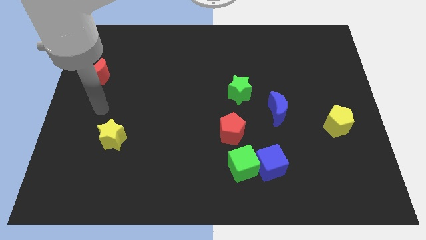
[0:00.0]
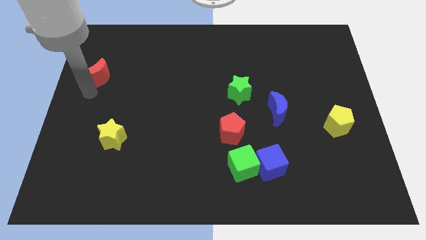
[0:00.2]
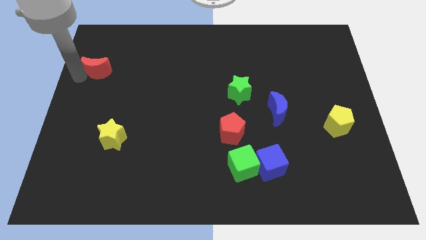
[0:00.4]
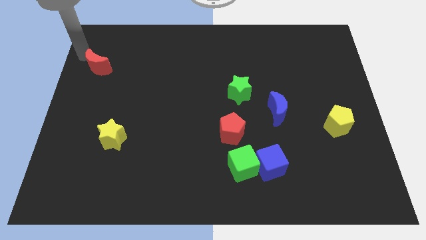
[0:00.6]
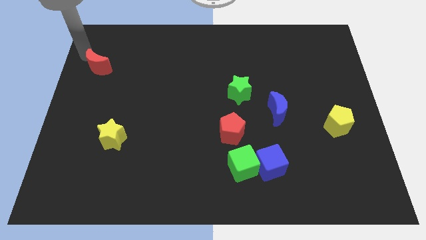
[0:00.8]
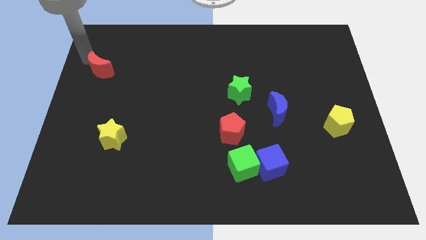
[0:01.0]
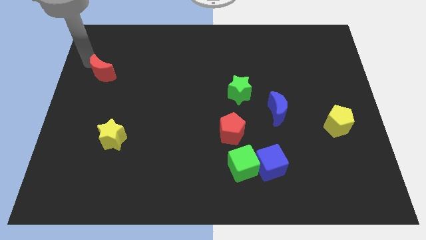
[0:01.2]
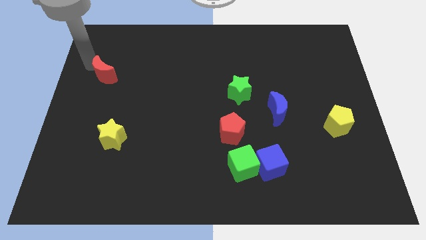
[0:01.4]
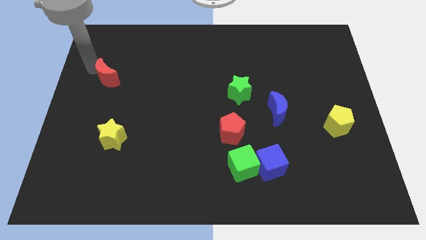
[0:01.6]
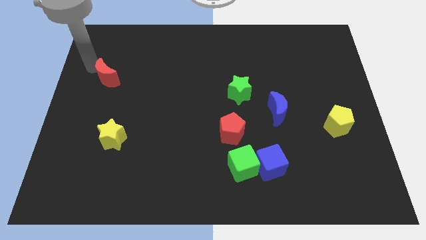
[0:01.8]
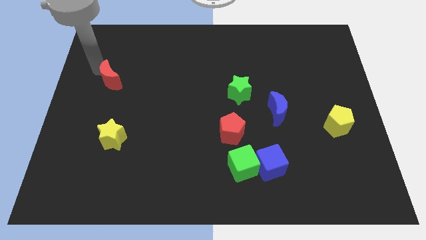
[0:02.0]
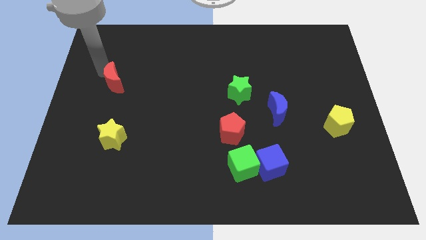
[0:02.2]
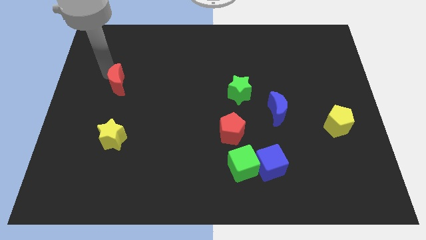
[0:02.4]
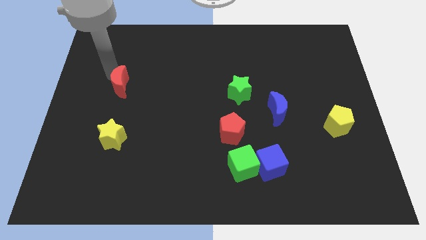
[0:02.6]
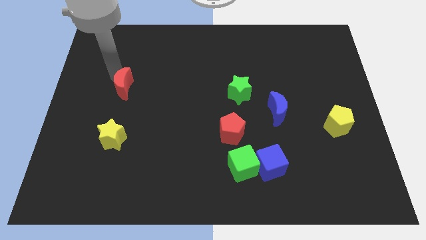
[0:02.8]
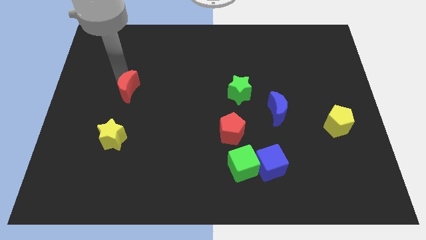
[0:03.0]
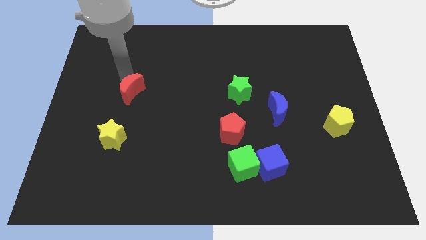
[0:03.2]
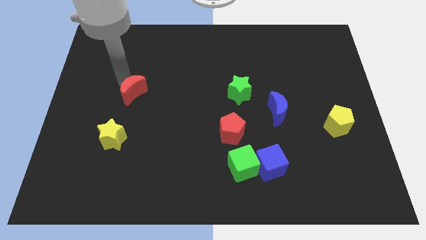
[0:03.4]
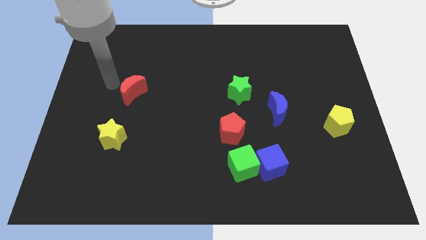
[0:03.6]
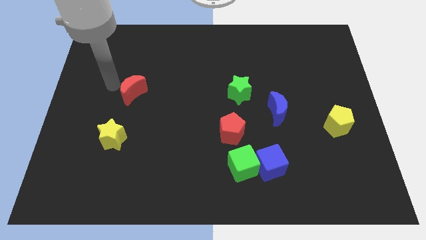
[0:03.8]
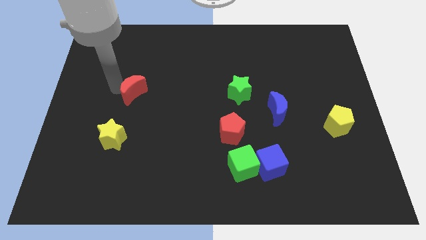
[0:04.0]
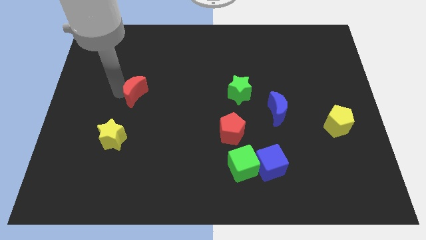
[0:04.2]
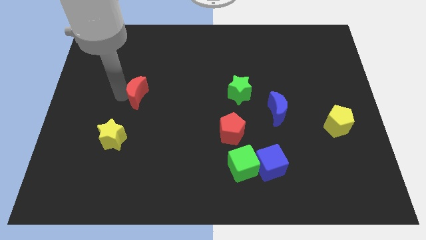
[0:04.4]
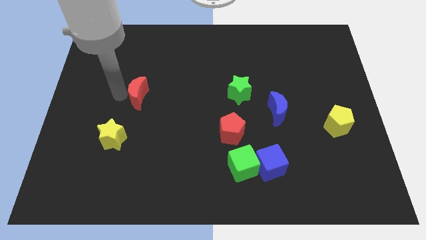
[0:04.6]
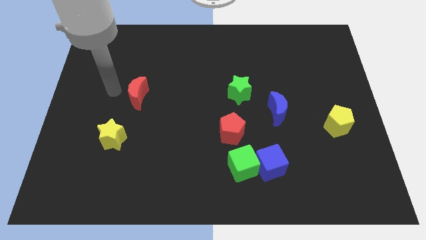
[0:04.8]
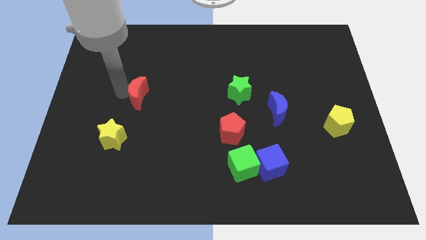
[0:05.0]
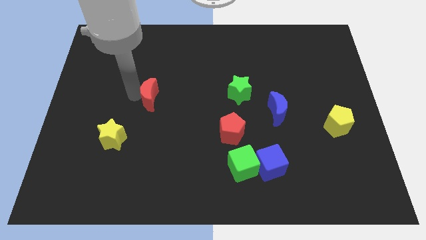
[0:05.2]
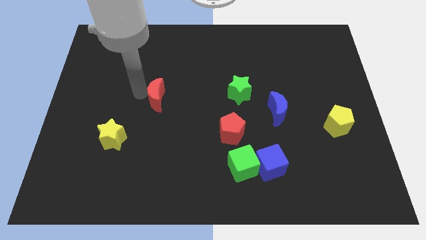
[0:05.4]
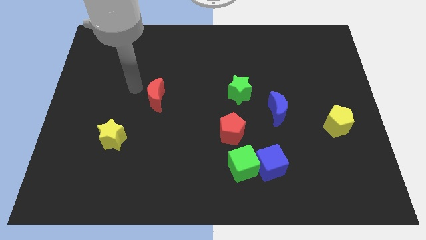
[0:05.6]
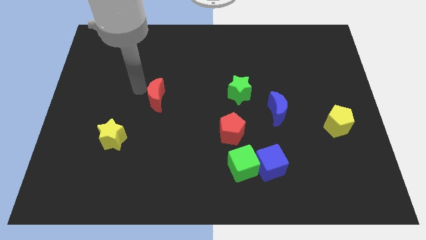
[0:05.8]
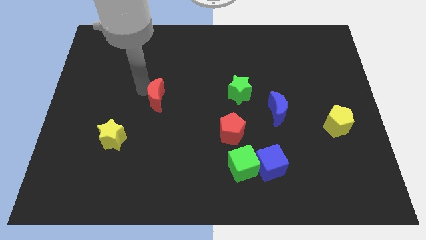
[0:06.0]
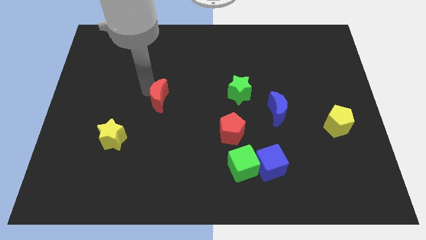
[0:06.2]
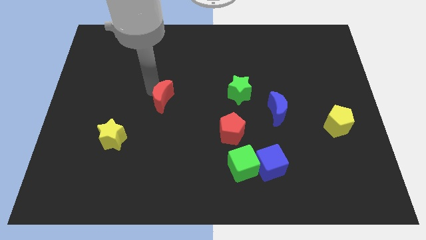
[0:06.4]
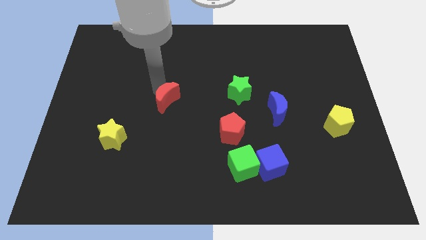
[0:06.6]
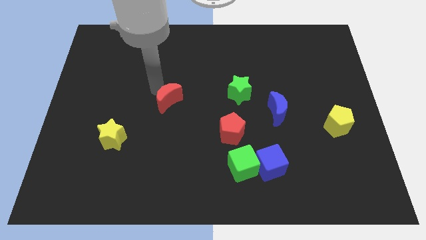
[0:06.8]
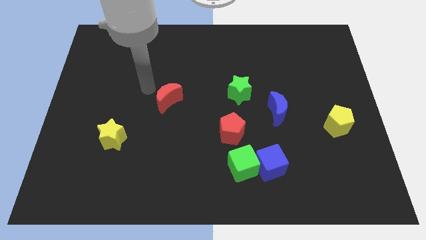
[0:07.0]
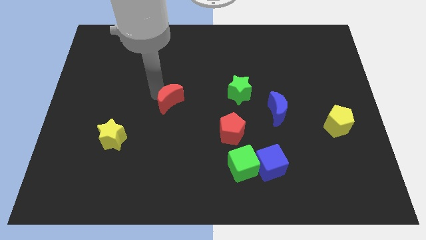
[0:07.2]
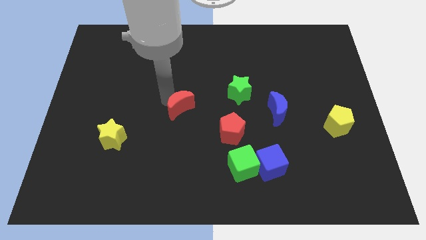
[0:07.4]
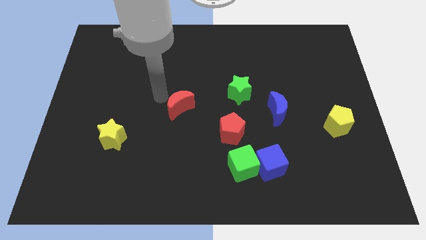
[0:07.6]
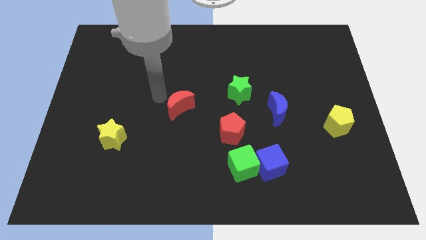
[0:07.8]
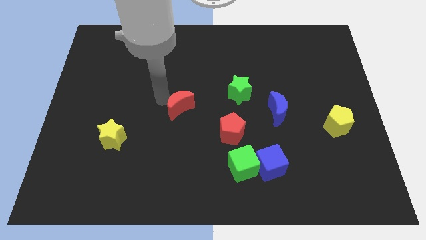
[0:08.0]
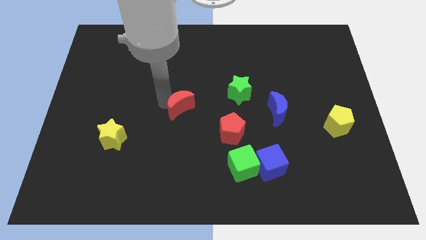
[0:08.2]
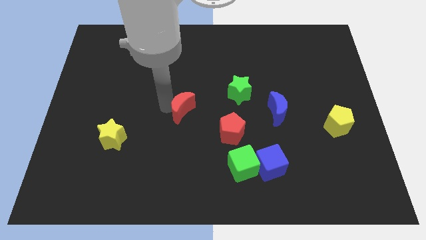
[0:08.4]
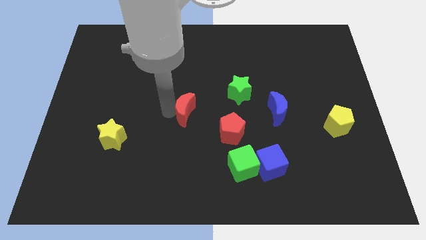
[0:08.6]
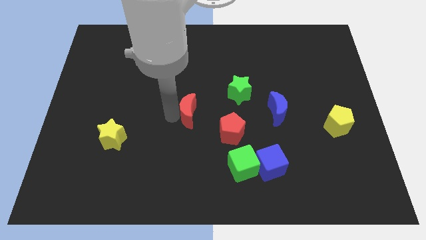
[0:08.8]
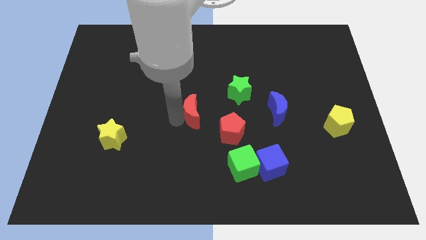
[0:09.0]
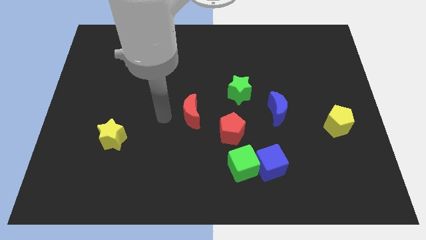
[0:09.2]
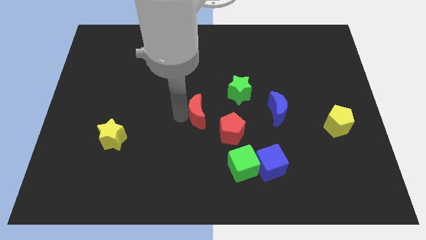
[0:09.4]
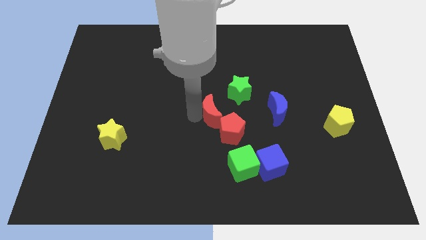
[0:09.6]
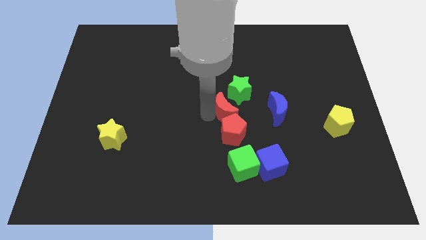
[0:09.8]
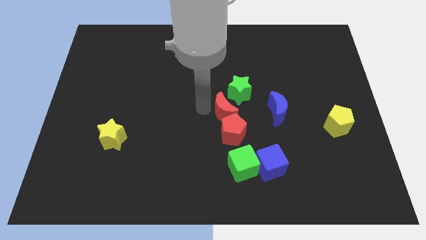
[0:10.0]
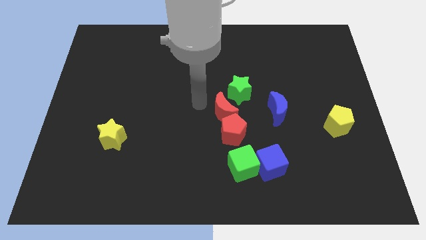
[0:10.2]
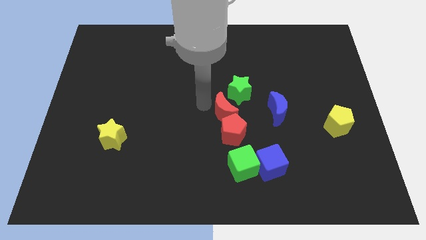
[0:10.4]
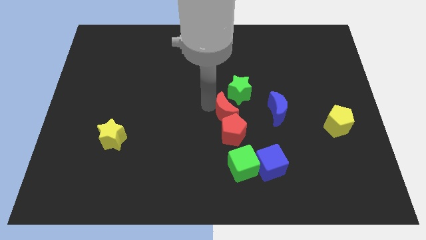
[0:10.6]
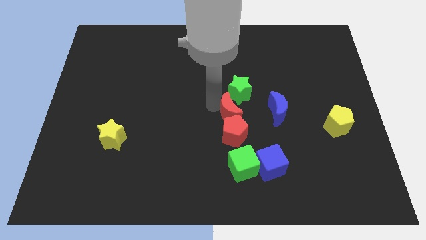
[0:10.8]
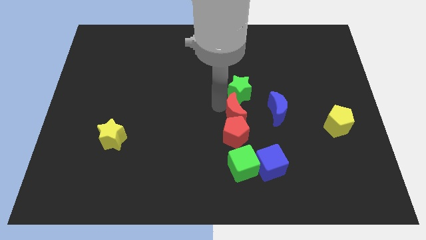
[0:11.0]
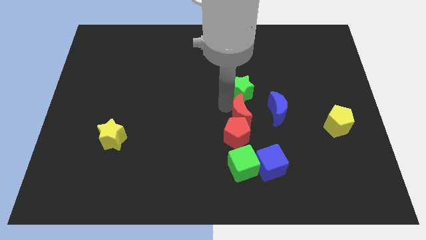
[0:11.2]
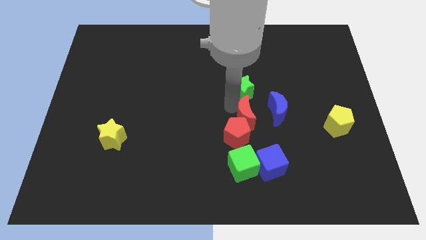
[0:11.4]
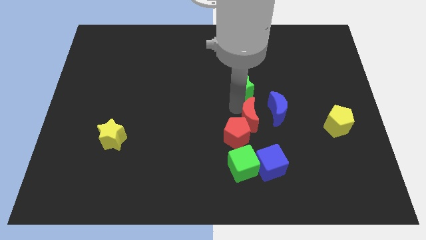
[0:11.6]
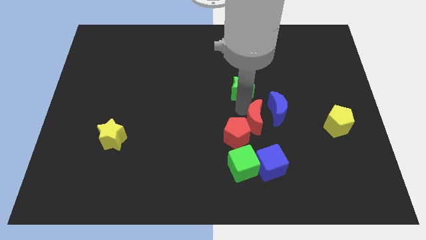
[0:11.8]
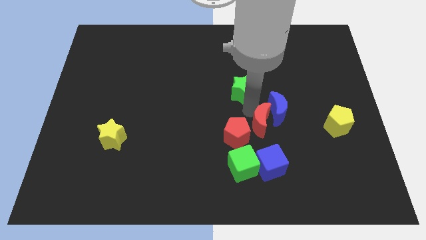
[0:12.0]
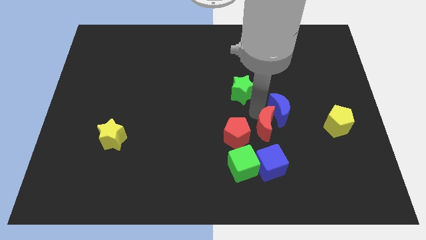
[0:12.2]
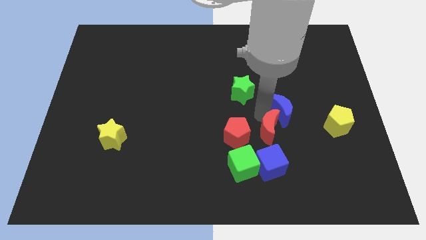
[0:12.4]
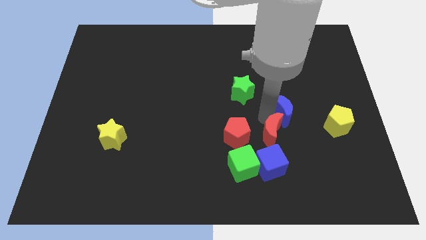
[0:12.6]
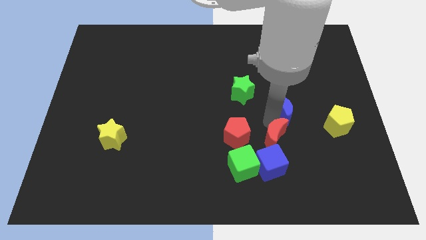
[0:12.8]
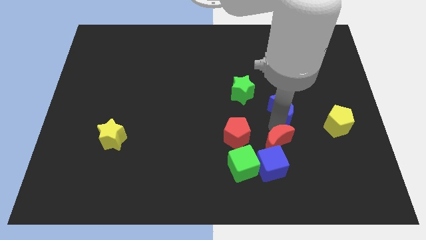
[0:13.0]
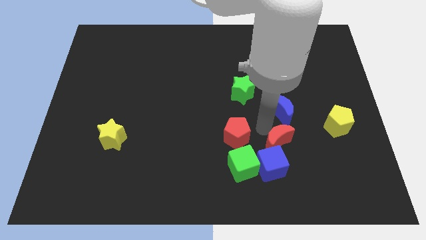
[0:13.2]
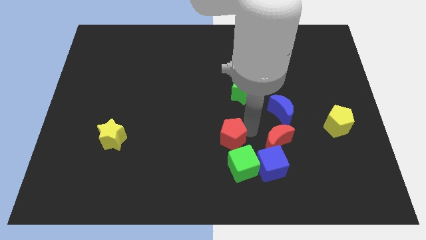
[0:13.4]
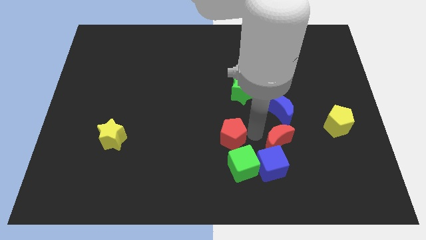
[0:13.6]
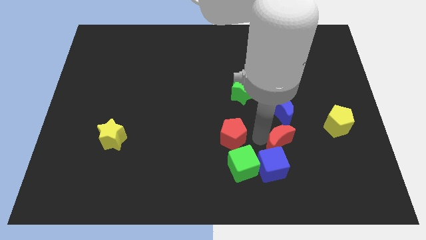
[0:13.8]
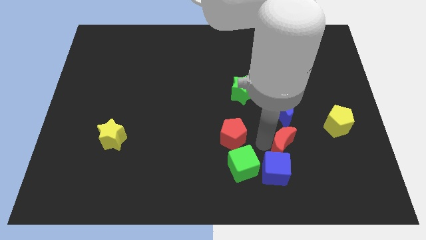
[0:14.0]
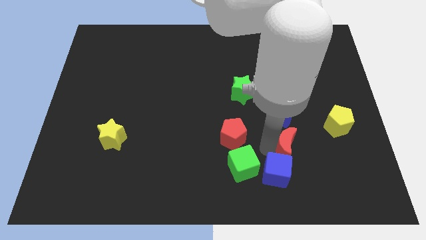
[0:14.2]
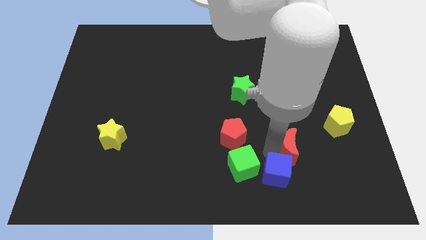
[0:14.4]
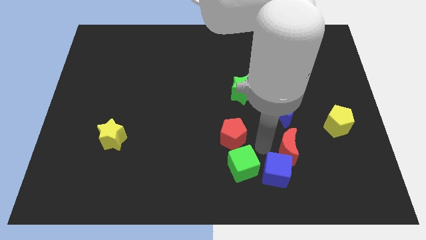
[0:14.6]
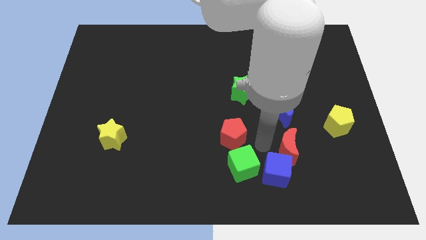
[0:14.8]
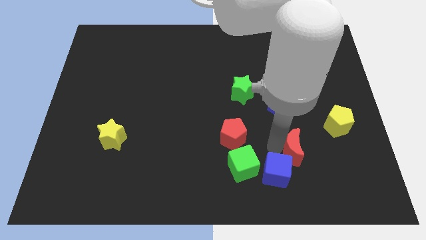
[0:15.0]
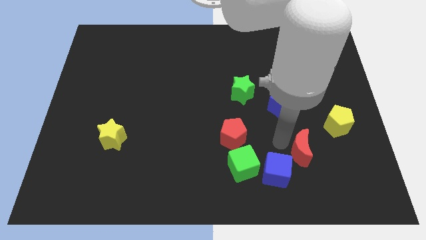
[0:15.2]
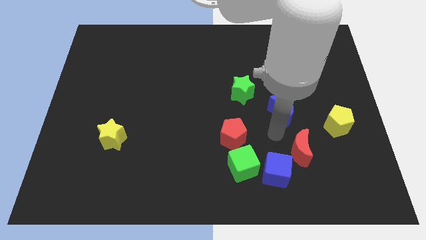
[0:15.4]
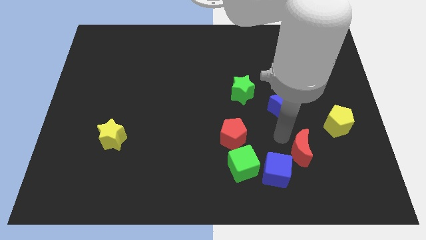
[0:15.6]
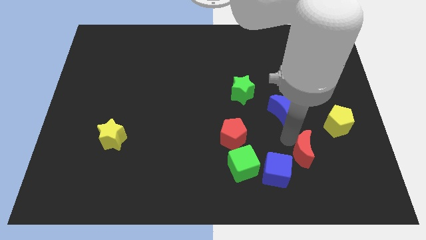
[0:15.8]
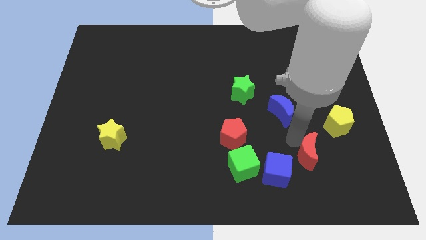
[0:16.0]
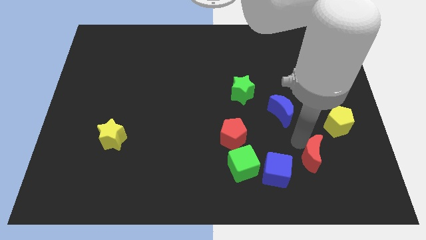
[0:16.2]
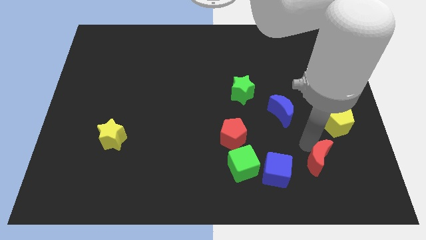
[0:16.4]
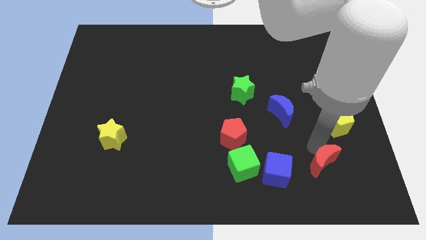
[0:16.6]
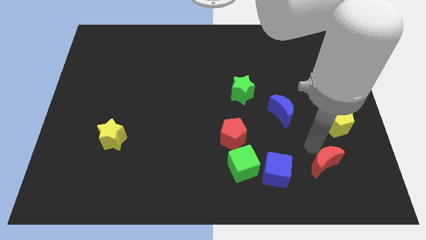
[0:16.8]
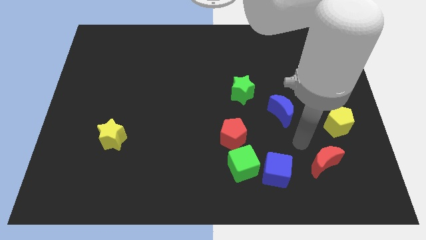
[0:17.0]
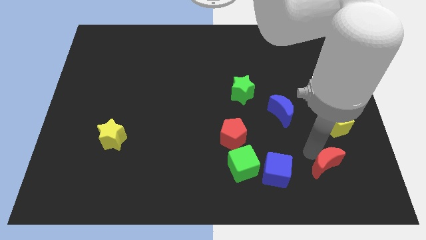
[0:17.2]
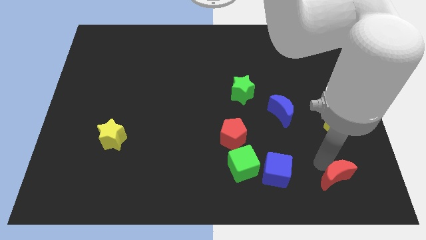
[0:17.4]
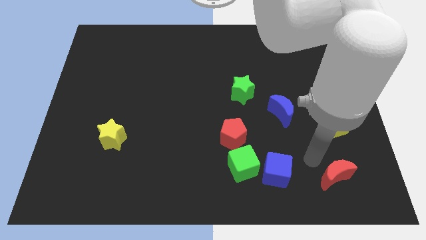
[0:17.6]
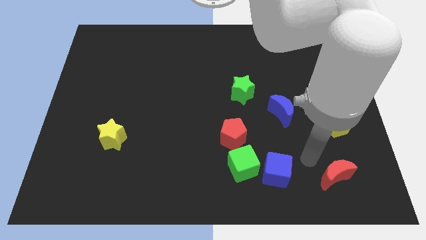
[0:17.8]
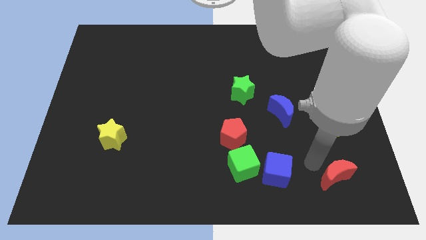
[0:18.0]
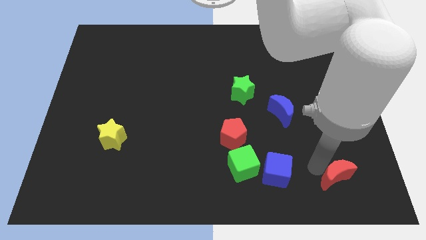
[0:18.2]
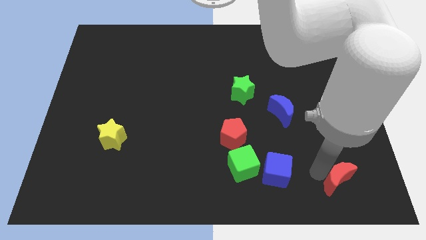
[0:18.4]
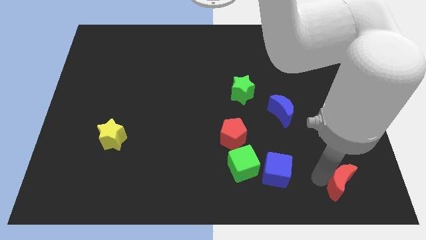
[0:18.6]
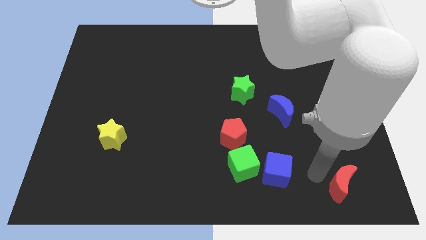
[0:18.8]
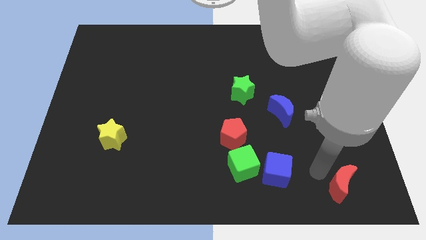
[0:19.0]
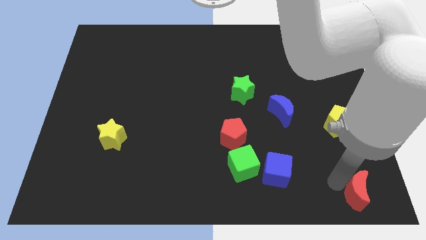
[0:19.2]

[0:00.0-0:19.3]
put the red moon to the bottom right corner
